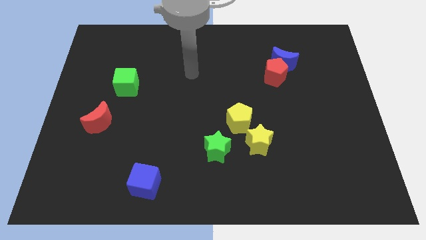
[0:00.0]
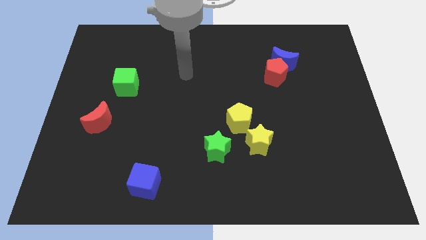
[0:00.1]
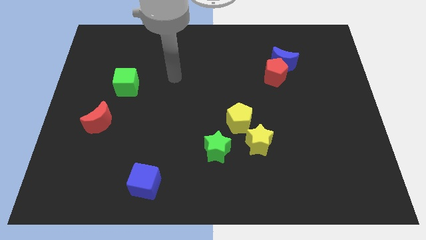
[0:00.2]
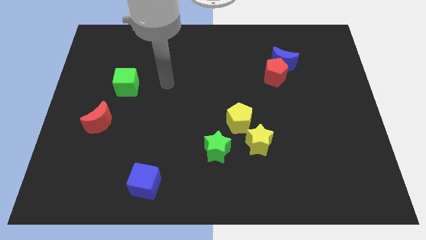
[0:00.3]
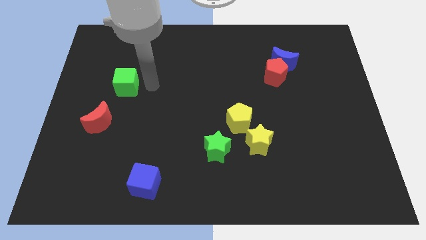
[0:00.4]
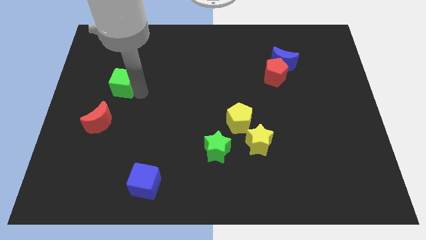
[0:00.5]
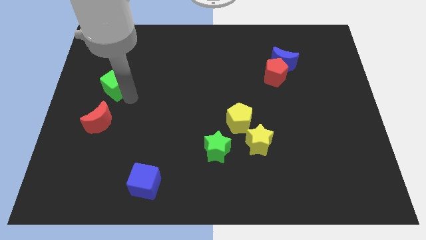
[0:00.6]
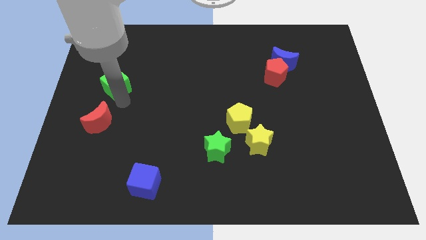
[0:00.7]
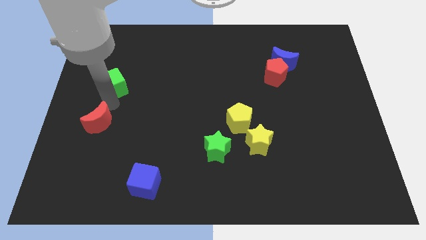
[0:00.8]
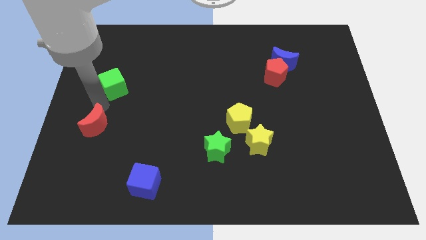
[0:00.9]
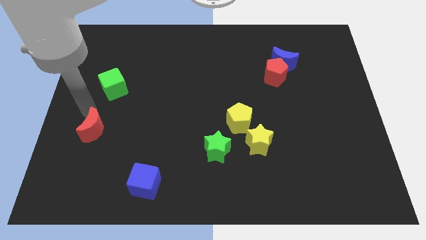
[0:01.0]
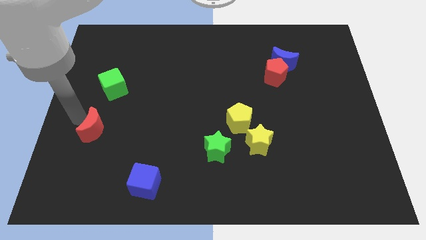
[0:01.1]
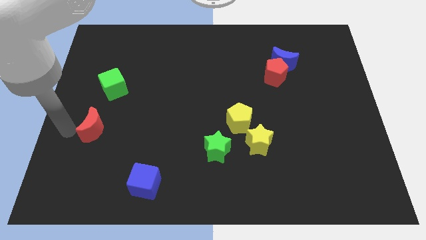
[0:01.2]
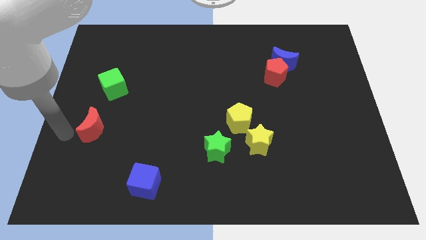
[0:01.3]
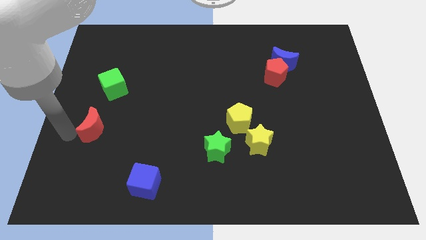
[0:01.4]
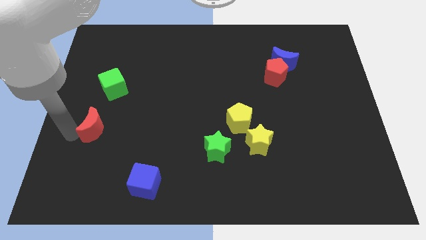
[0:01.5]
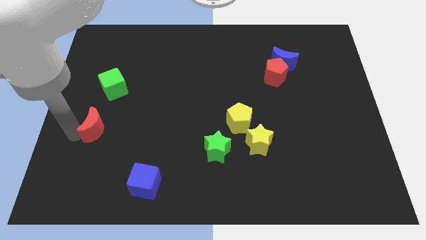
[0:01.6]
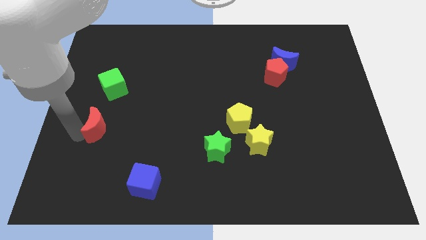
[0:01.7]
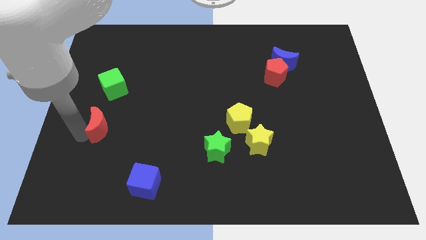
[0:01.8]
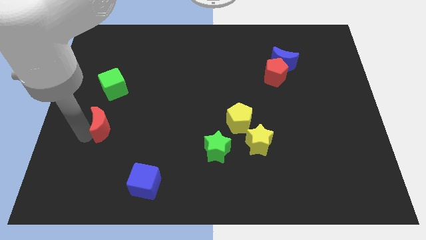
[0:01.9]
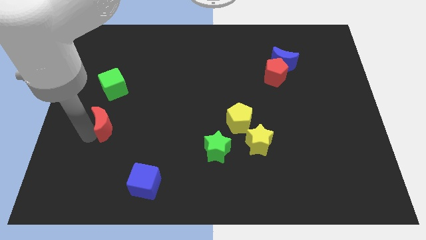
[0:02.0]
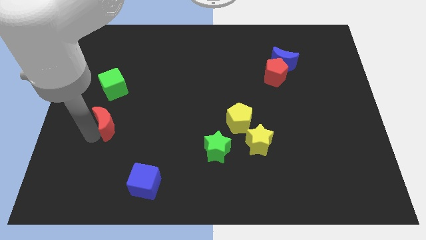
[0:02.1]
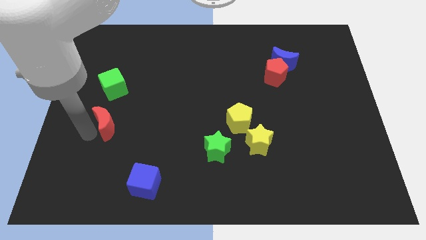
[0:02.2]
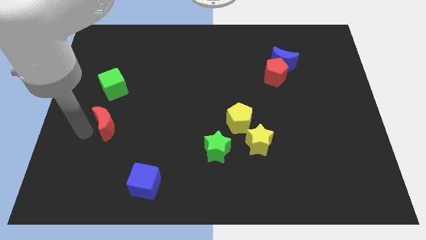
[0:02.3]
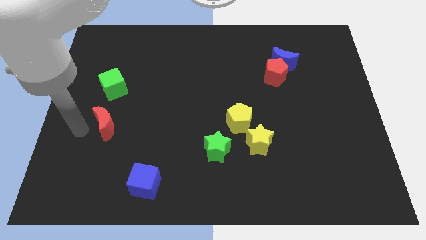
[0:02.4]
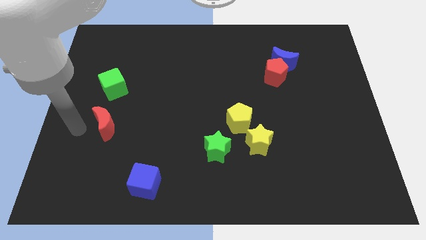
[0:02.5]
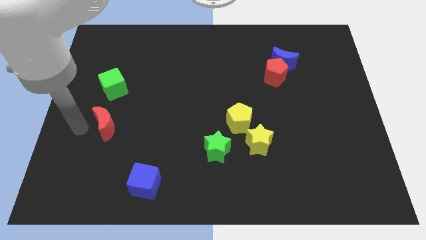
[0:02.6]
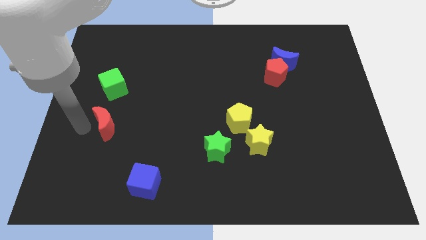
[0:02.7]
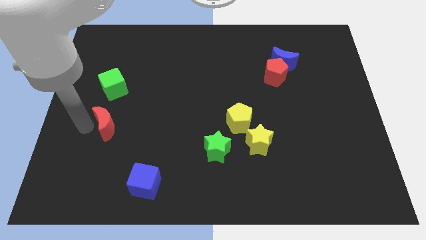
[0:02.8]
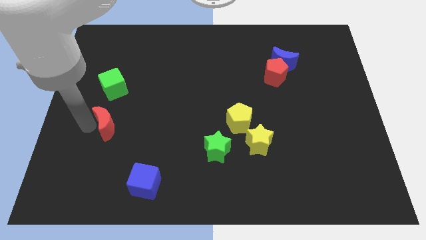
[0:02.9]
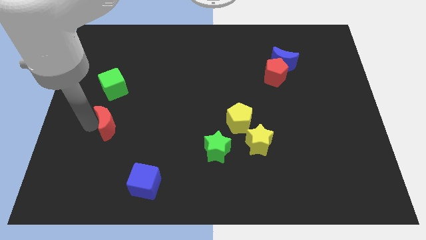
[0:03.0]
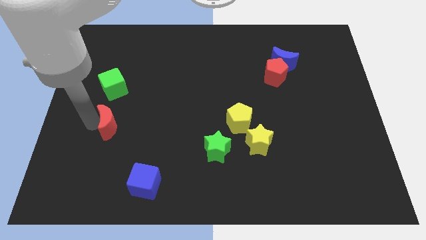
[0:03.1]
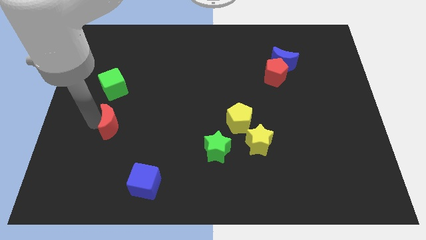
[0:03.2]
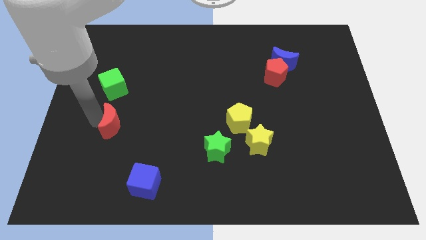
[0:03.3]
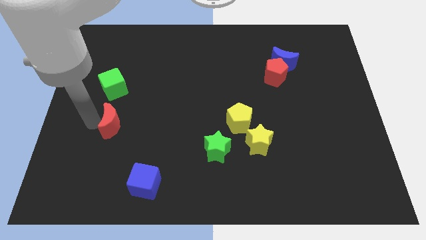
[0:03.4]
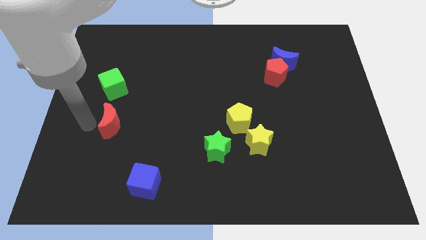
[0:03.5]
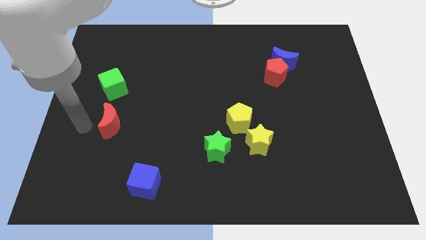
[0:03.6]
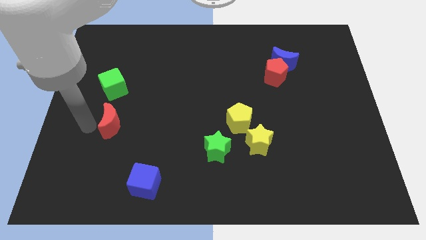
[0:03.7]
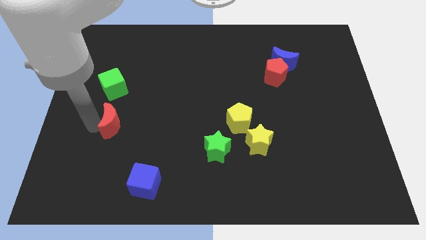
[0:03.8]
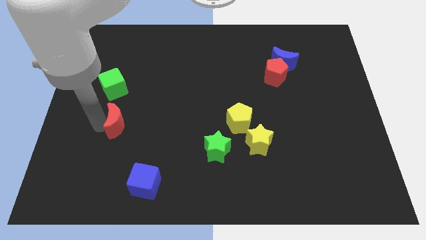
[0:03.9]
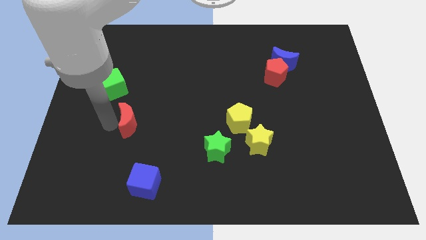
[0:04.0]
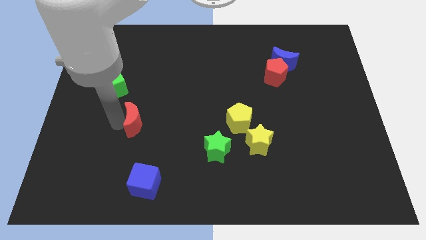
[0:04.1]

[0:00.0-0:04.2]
slightly push the red moon right

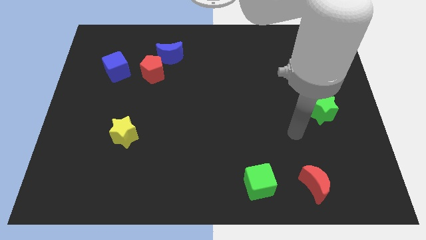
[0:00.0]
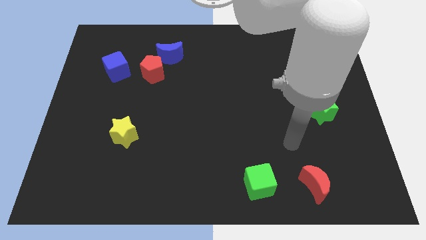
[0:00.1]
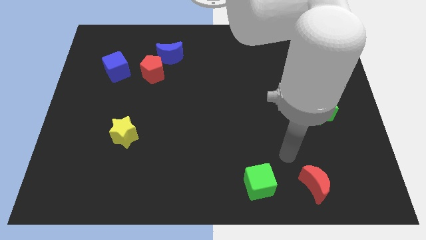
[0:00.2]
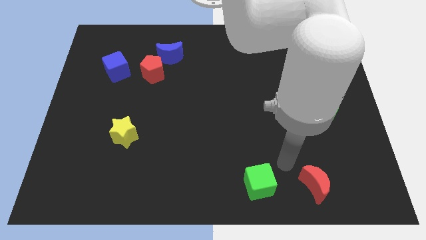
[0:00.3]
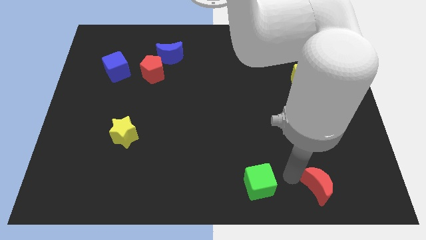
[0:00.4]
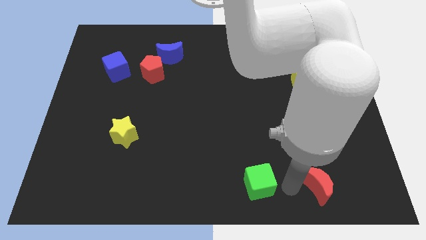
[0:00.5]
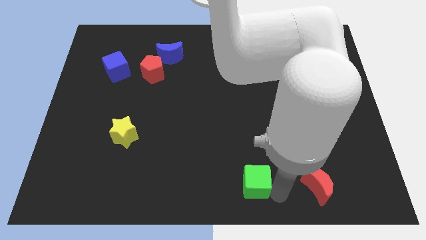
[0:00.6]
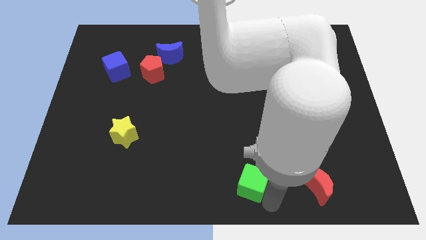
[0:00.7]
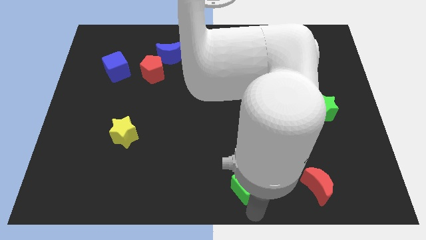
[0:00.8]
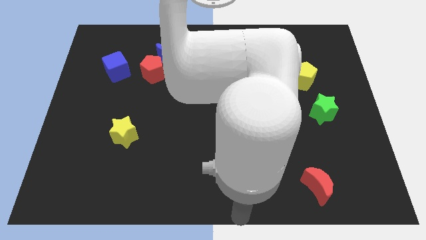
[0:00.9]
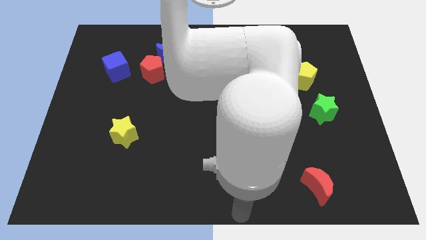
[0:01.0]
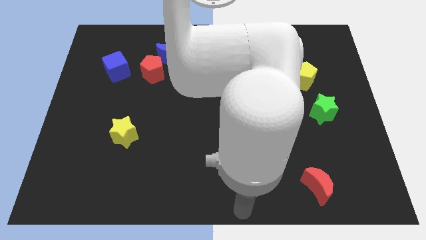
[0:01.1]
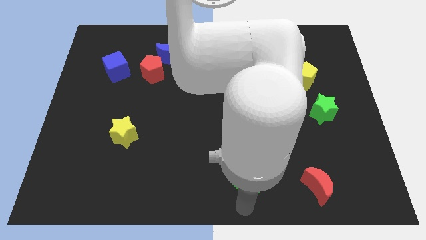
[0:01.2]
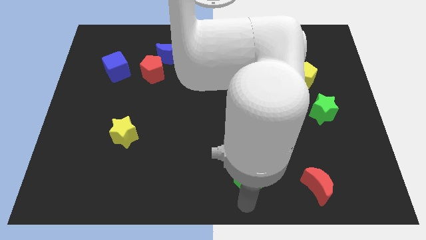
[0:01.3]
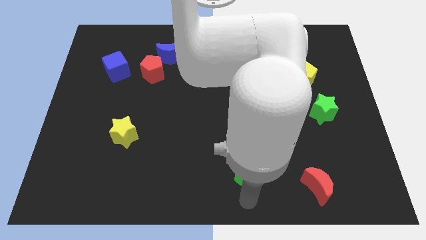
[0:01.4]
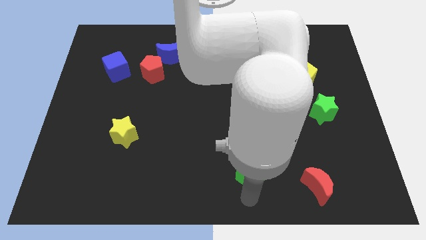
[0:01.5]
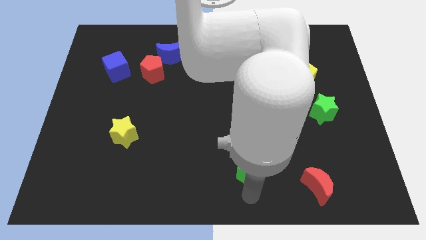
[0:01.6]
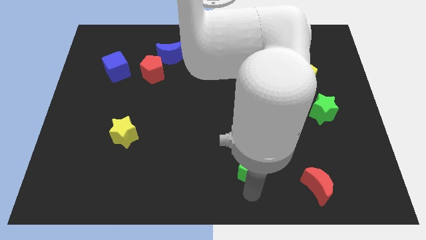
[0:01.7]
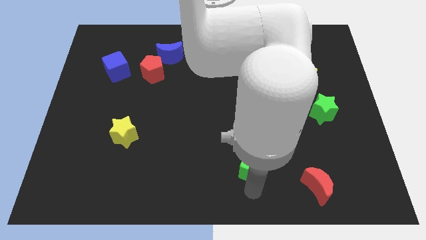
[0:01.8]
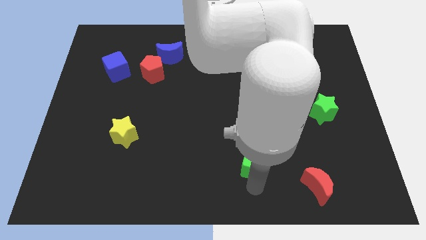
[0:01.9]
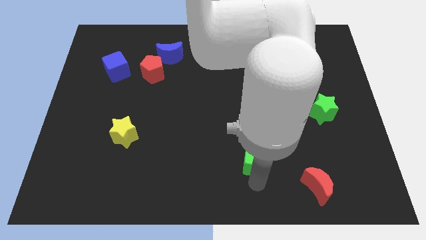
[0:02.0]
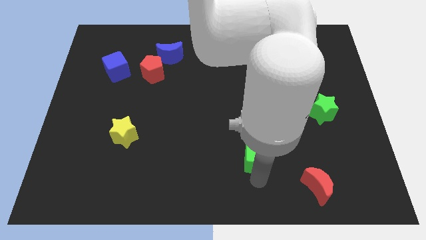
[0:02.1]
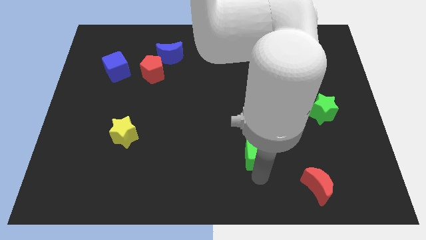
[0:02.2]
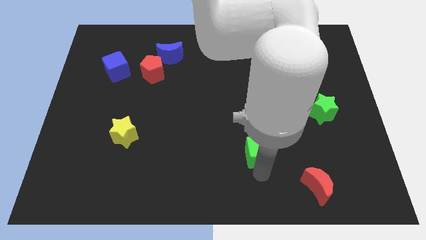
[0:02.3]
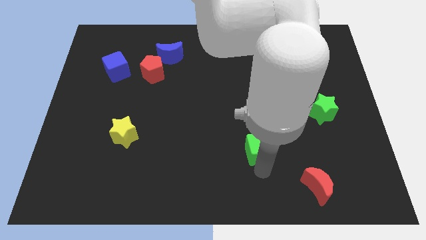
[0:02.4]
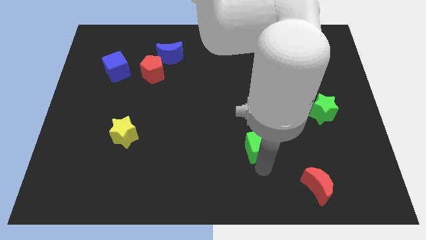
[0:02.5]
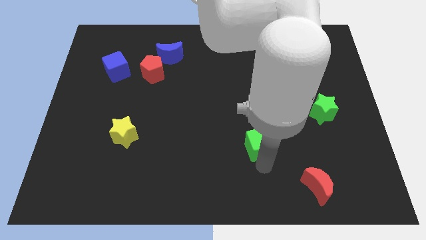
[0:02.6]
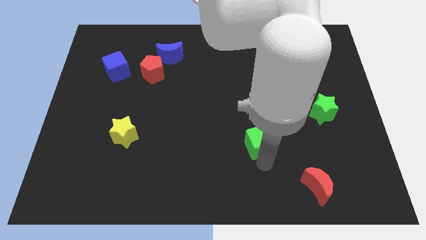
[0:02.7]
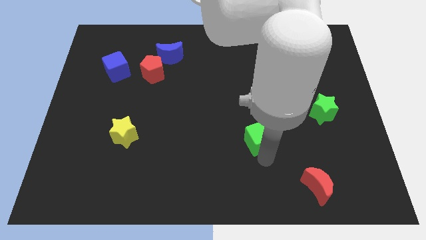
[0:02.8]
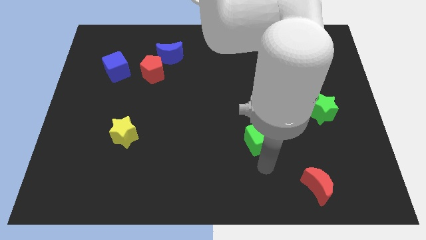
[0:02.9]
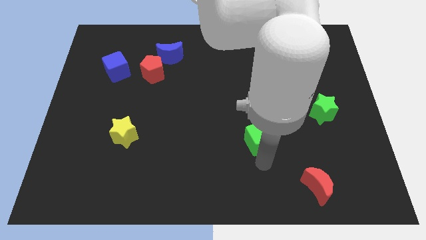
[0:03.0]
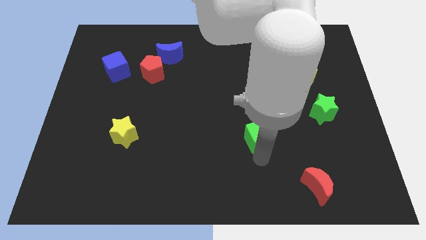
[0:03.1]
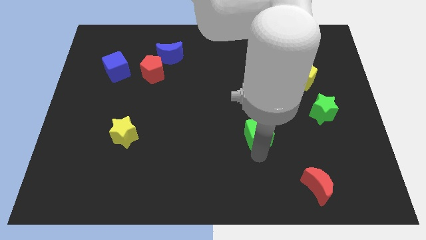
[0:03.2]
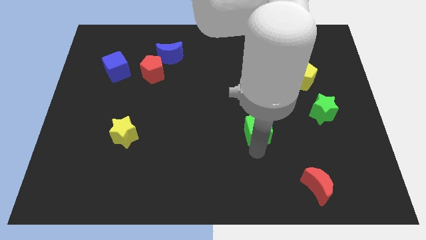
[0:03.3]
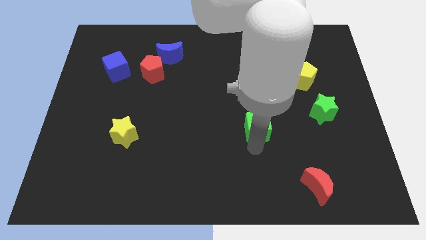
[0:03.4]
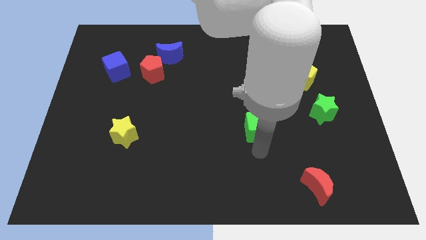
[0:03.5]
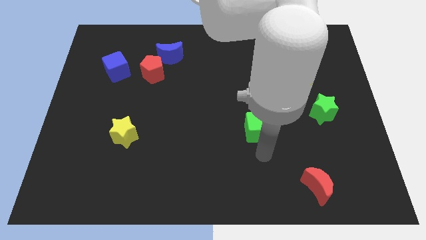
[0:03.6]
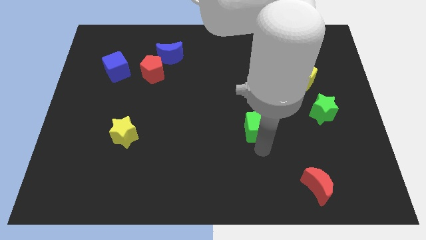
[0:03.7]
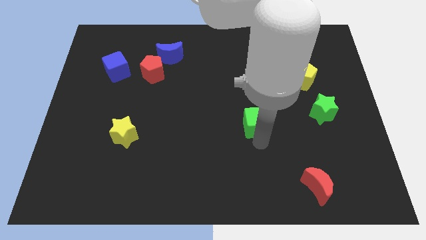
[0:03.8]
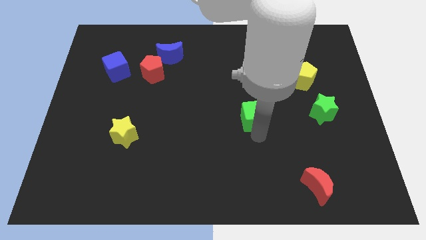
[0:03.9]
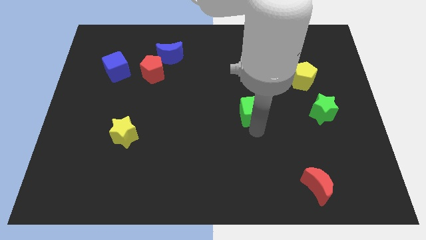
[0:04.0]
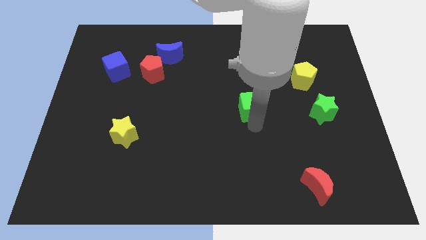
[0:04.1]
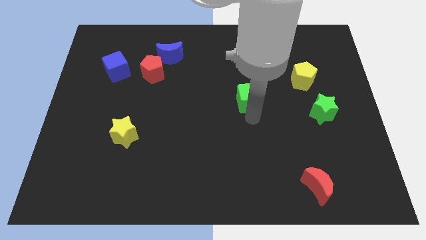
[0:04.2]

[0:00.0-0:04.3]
move the green cube upwards
